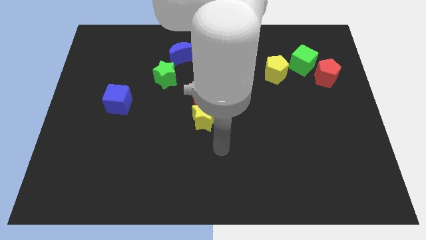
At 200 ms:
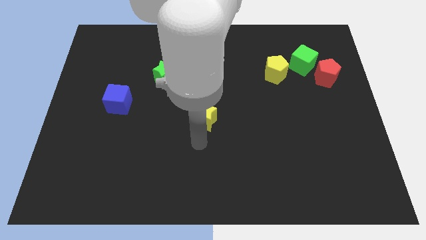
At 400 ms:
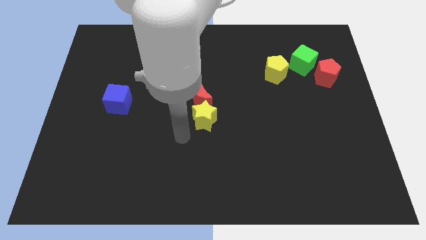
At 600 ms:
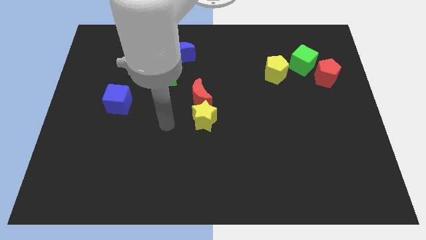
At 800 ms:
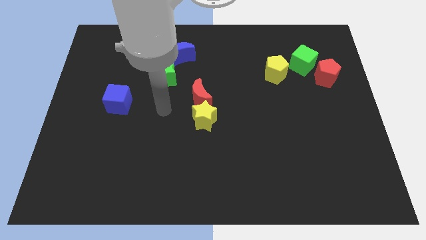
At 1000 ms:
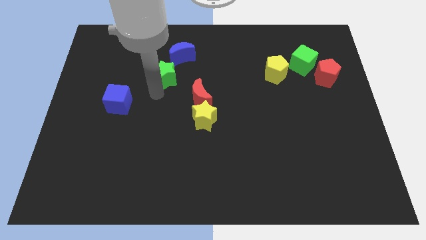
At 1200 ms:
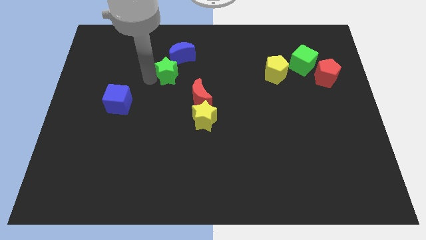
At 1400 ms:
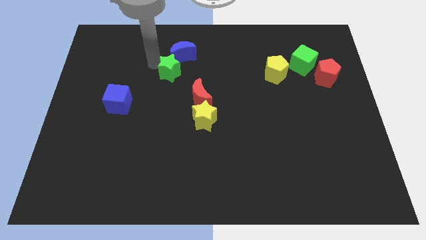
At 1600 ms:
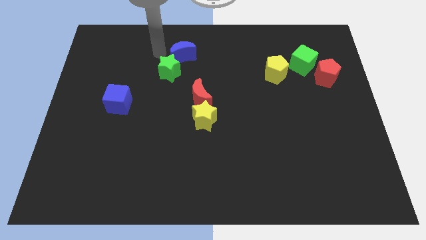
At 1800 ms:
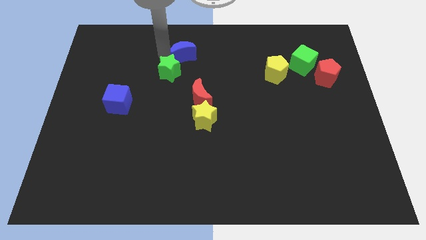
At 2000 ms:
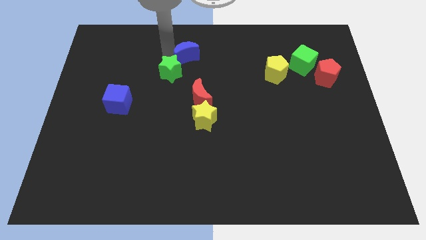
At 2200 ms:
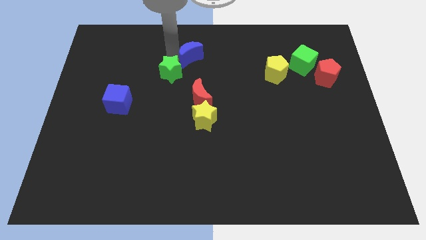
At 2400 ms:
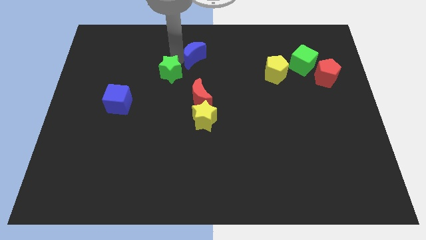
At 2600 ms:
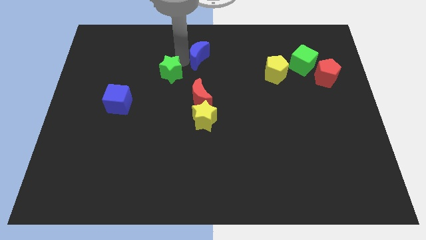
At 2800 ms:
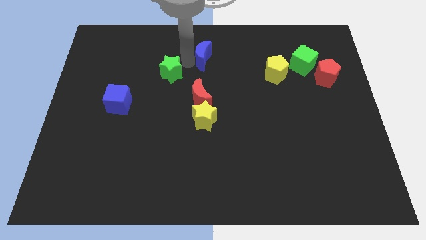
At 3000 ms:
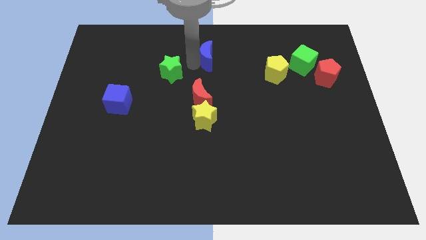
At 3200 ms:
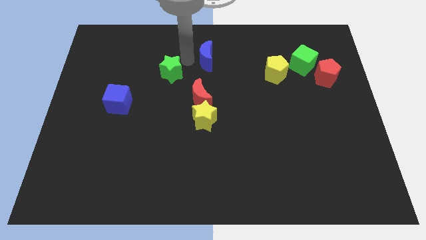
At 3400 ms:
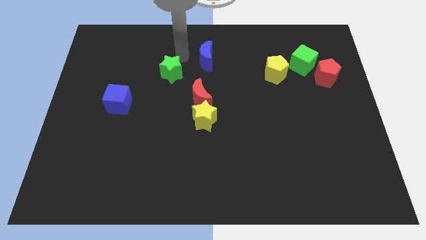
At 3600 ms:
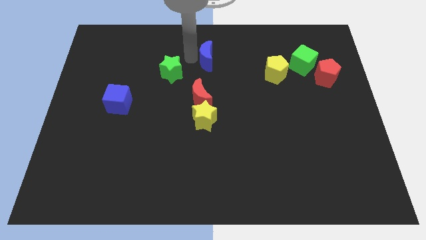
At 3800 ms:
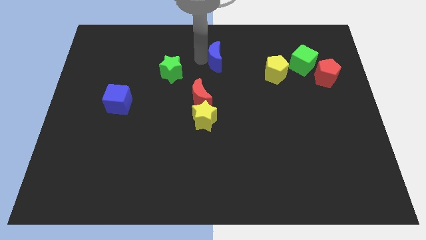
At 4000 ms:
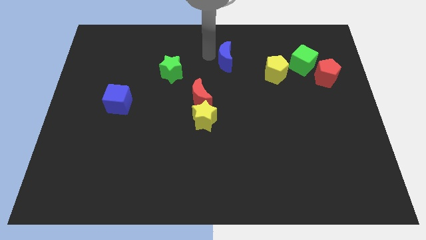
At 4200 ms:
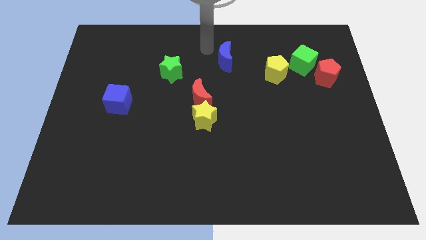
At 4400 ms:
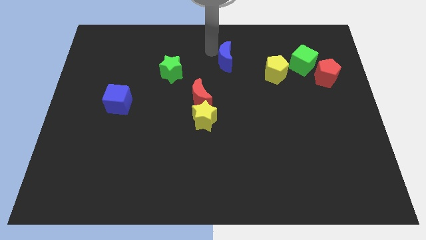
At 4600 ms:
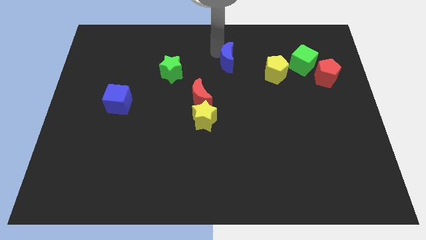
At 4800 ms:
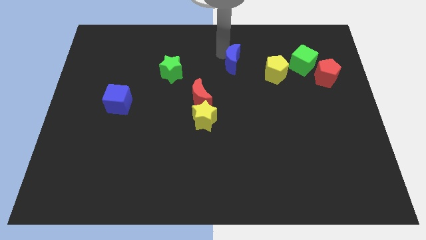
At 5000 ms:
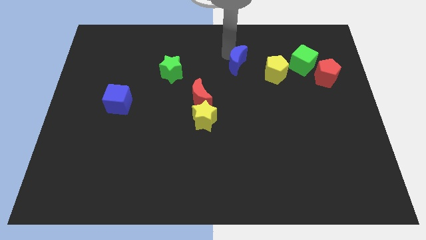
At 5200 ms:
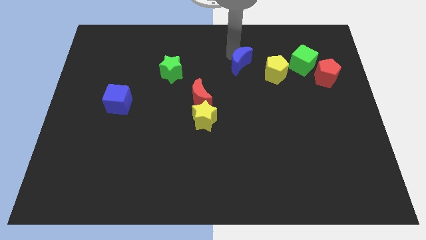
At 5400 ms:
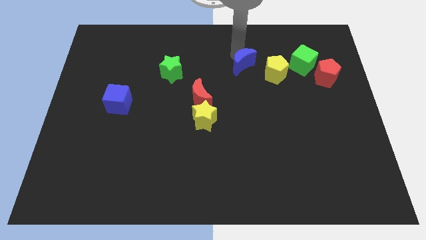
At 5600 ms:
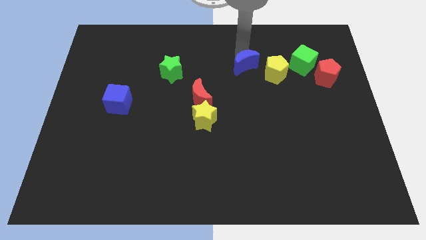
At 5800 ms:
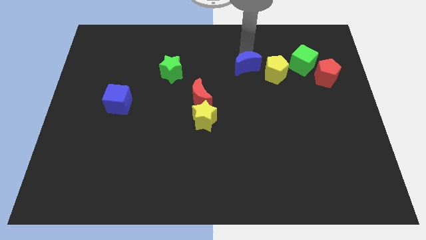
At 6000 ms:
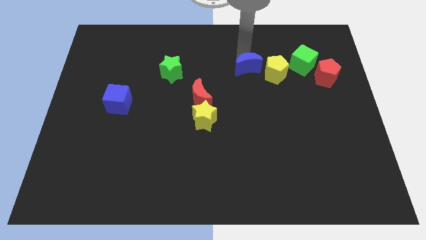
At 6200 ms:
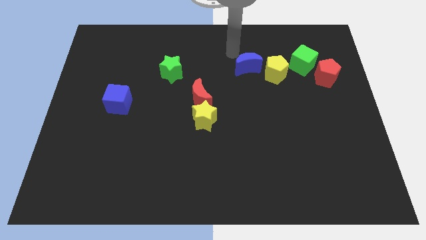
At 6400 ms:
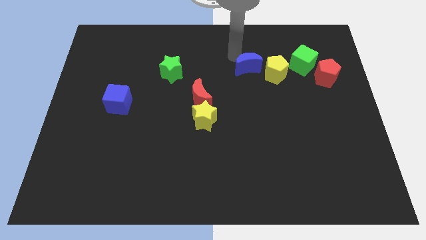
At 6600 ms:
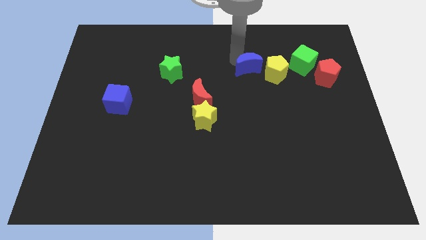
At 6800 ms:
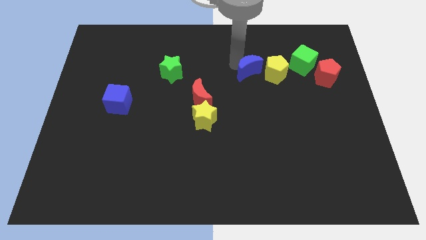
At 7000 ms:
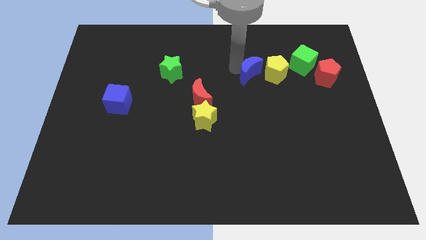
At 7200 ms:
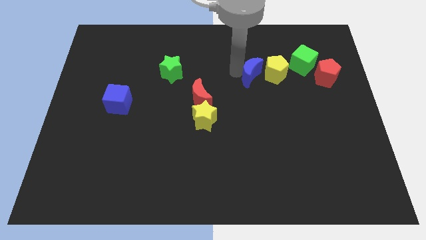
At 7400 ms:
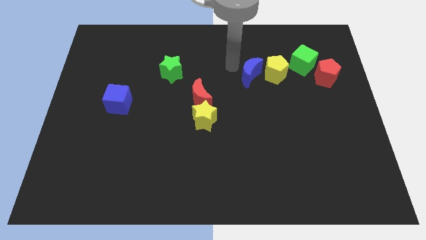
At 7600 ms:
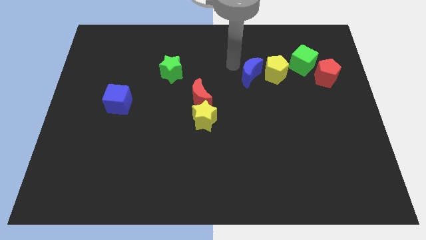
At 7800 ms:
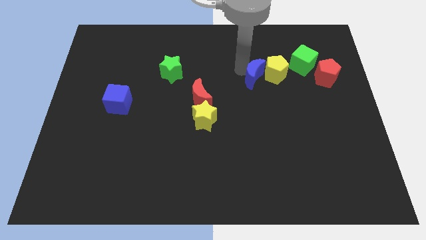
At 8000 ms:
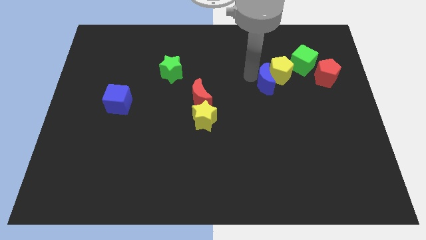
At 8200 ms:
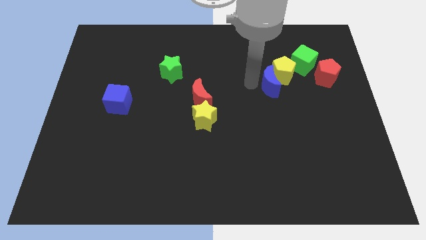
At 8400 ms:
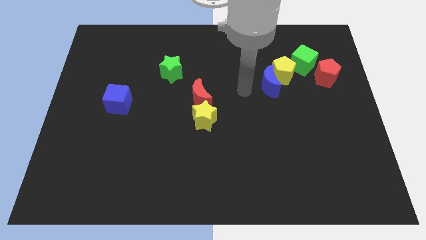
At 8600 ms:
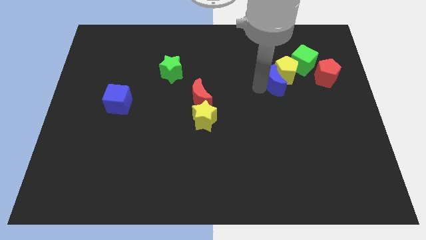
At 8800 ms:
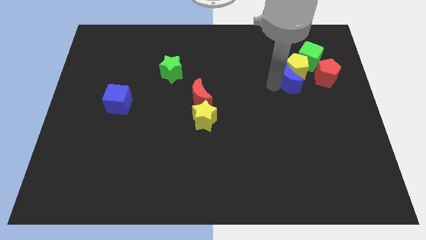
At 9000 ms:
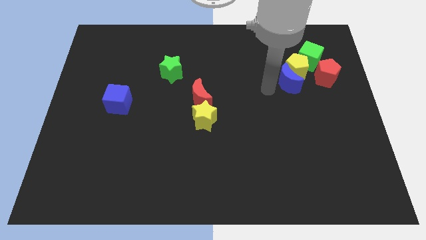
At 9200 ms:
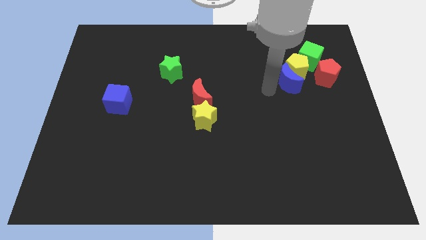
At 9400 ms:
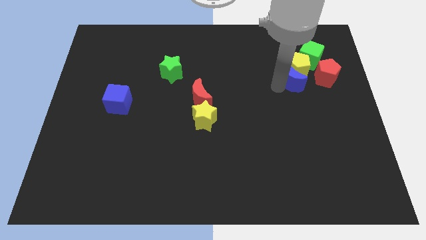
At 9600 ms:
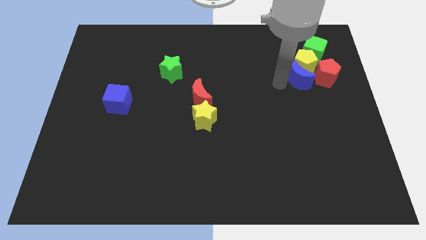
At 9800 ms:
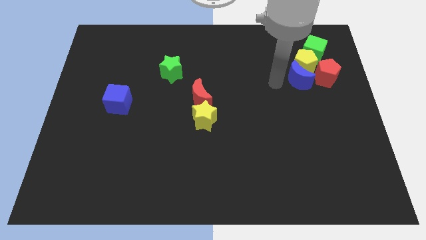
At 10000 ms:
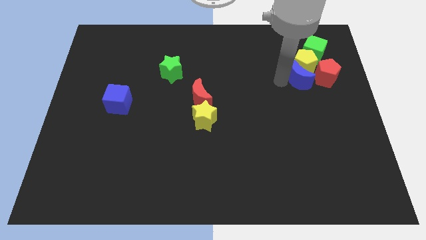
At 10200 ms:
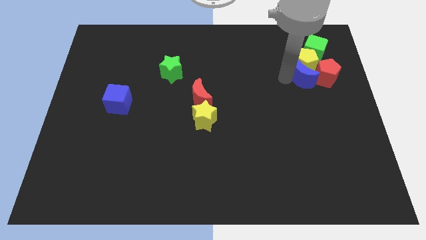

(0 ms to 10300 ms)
slide the blue moon to the red pentagon

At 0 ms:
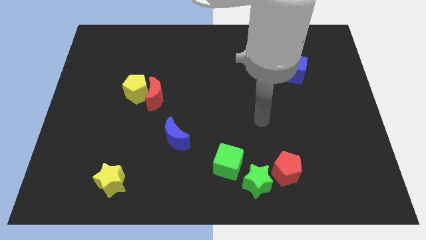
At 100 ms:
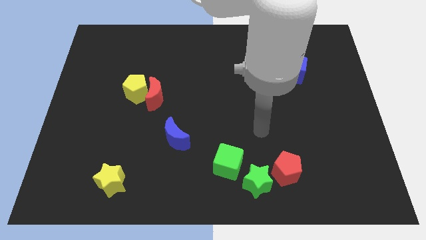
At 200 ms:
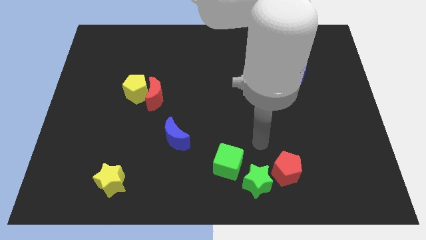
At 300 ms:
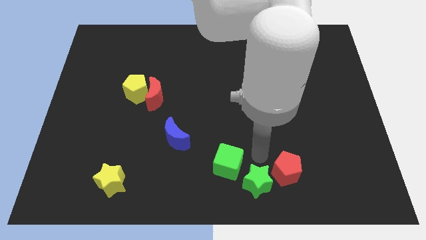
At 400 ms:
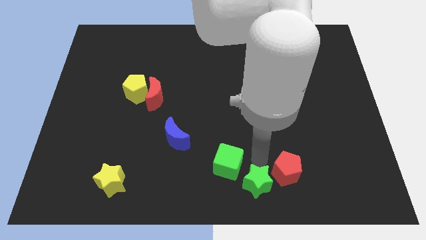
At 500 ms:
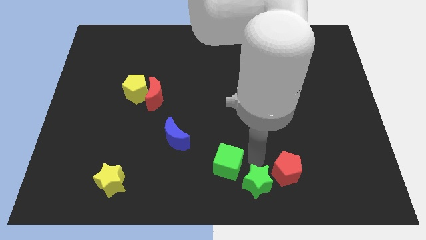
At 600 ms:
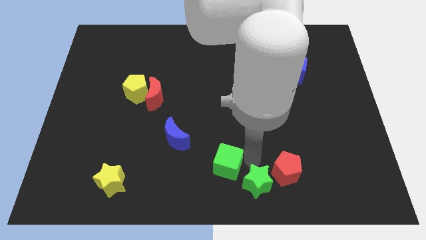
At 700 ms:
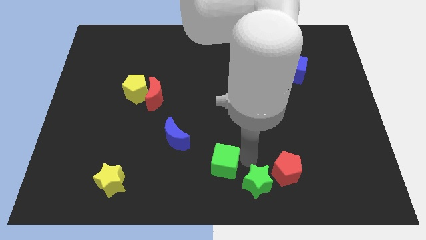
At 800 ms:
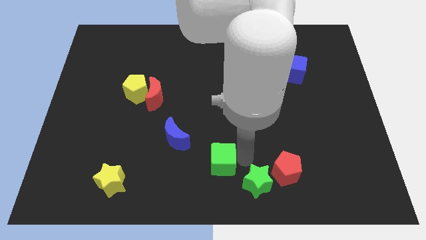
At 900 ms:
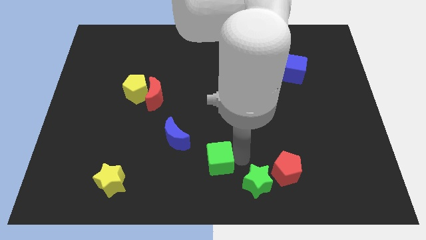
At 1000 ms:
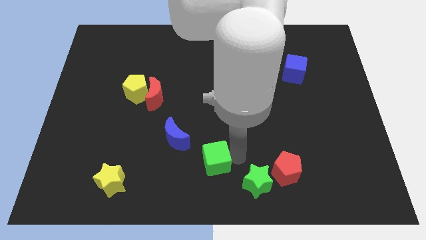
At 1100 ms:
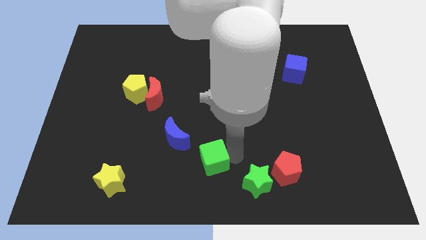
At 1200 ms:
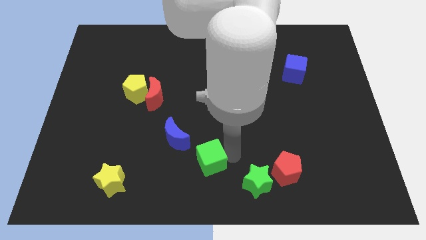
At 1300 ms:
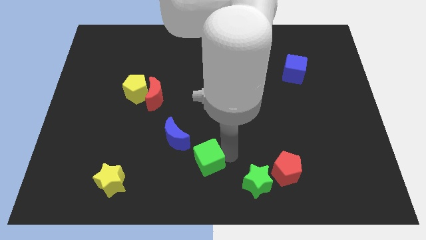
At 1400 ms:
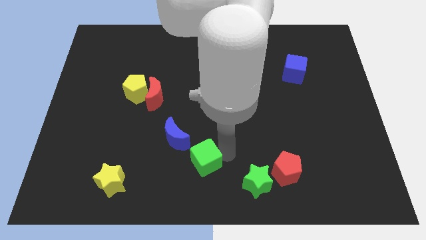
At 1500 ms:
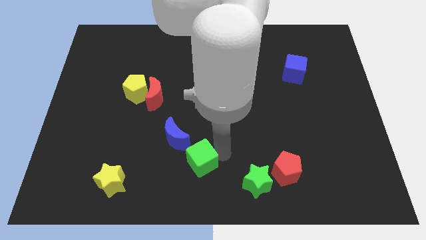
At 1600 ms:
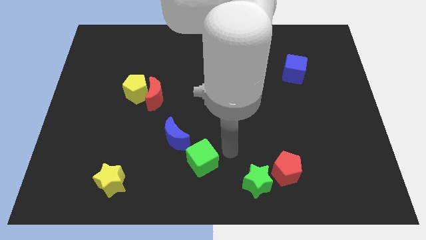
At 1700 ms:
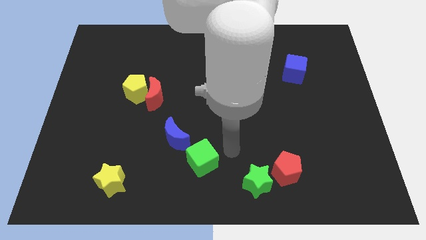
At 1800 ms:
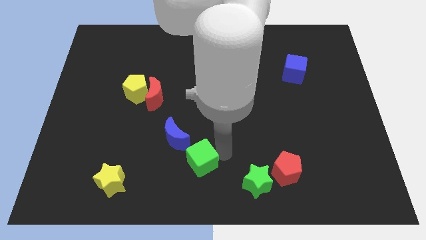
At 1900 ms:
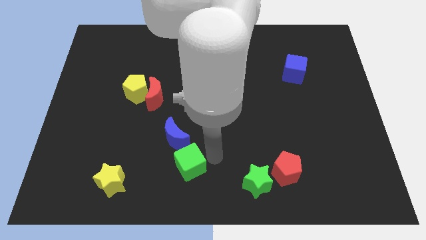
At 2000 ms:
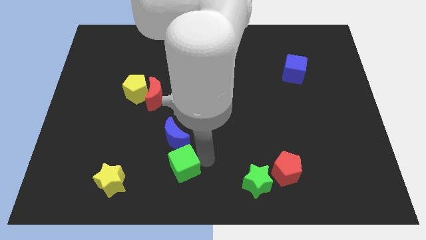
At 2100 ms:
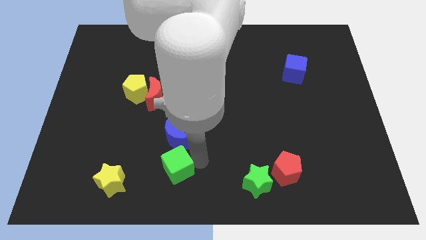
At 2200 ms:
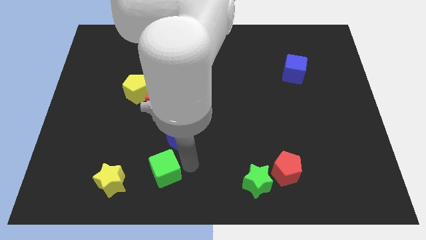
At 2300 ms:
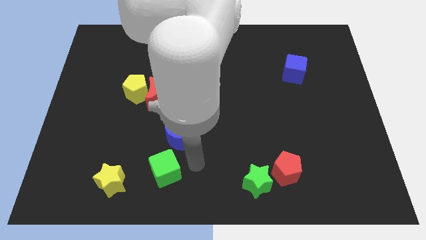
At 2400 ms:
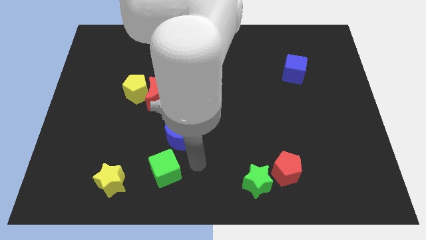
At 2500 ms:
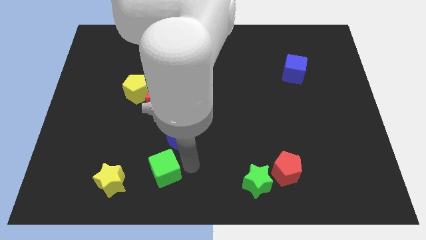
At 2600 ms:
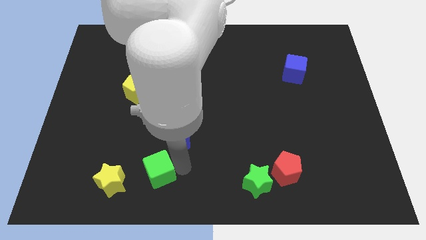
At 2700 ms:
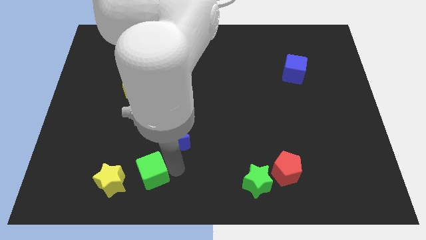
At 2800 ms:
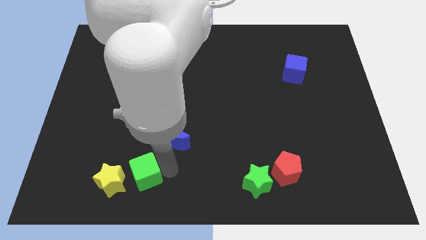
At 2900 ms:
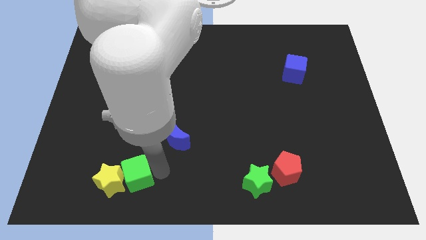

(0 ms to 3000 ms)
push the green cube towards the yellow star

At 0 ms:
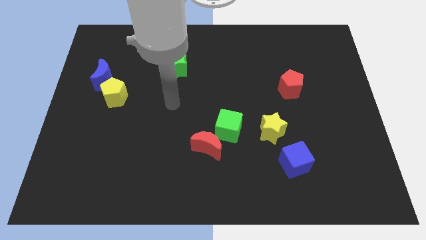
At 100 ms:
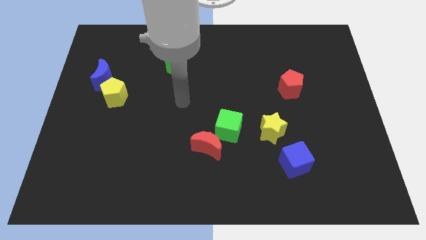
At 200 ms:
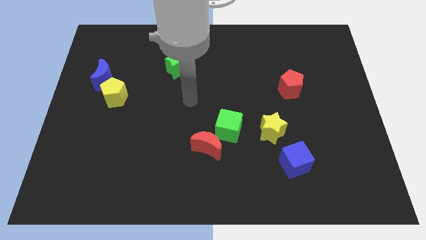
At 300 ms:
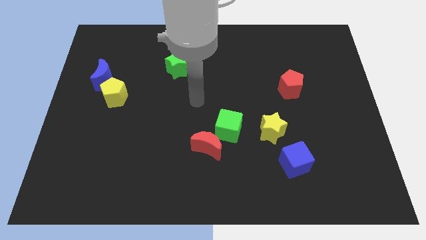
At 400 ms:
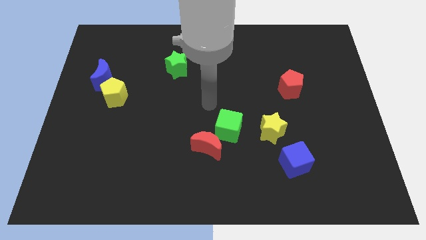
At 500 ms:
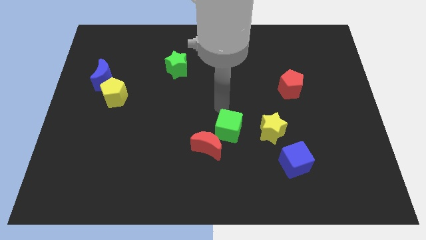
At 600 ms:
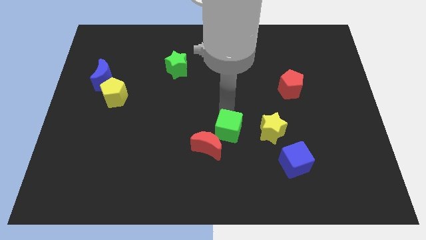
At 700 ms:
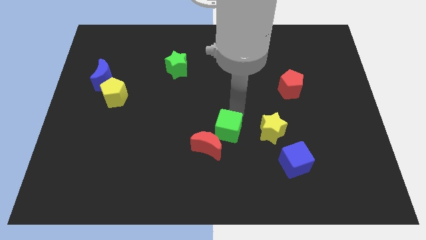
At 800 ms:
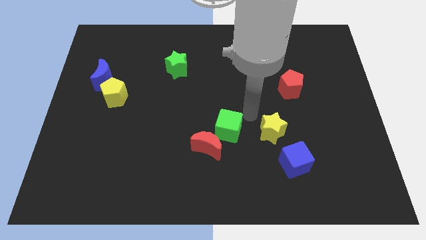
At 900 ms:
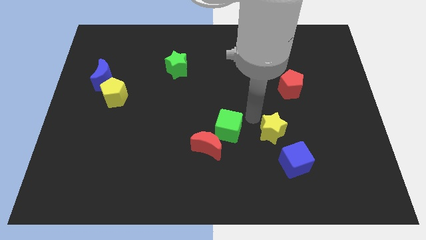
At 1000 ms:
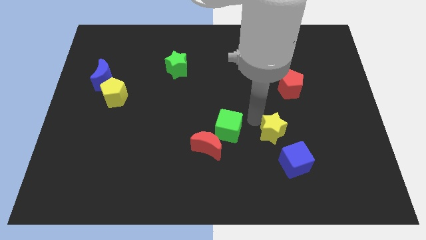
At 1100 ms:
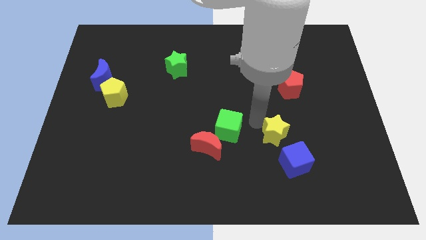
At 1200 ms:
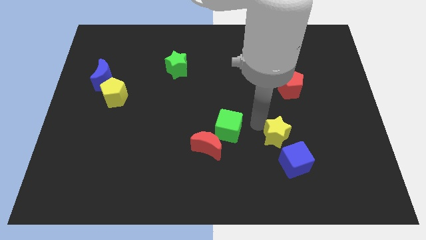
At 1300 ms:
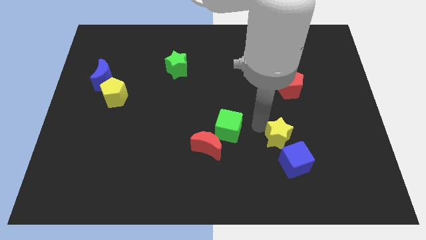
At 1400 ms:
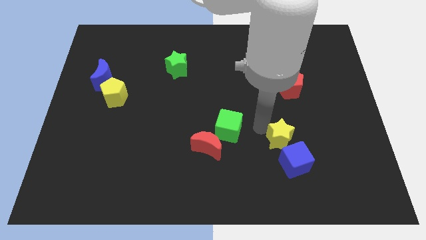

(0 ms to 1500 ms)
move the yellow star next to the blue cube
